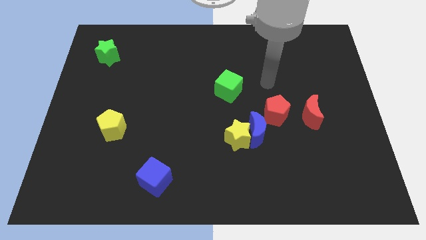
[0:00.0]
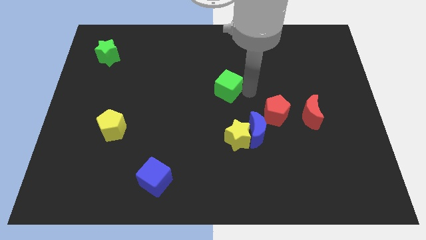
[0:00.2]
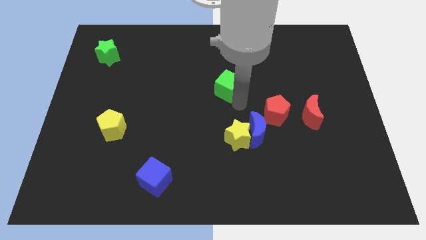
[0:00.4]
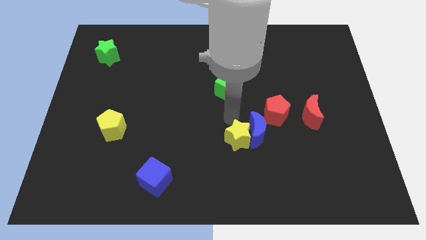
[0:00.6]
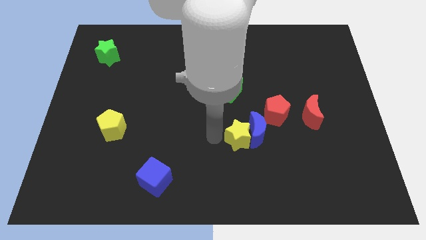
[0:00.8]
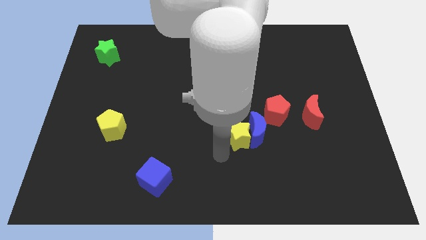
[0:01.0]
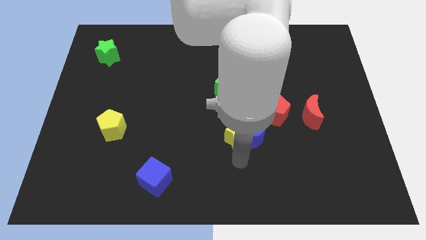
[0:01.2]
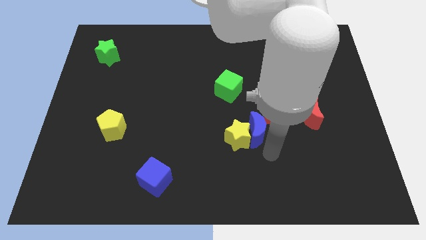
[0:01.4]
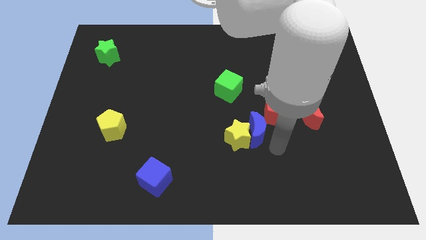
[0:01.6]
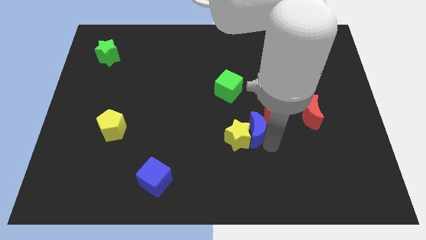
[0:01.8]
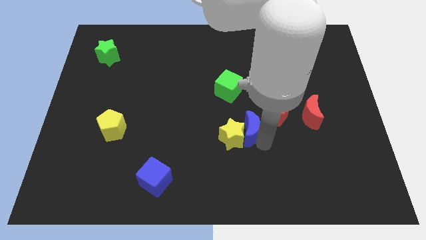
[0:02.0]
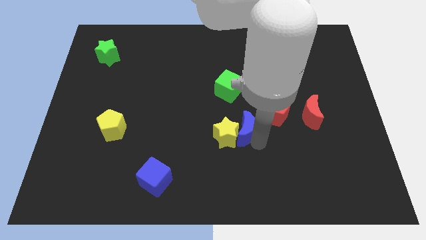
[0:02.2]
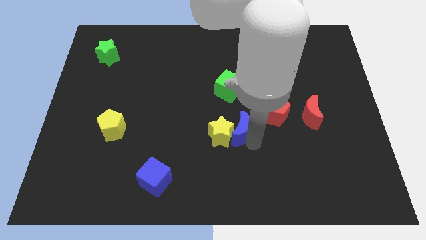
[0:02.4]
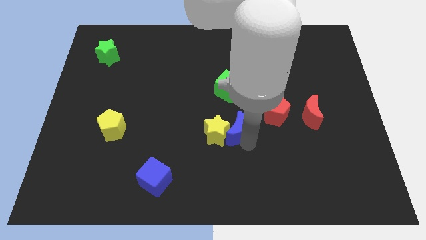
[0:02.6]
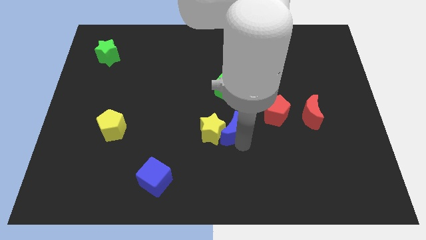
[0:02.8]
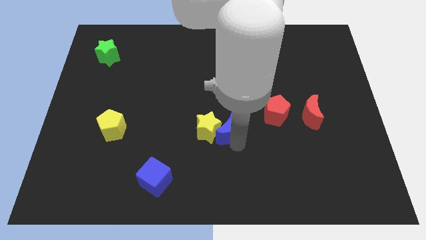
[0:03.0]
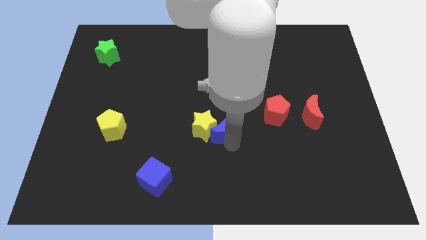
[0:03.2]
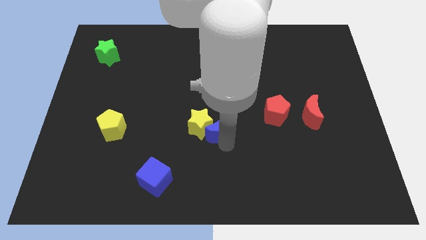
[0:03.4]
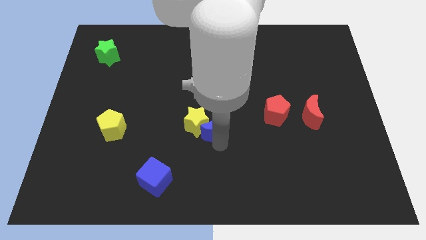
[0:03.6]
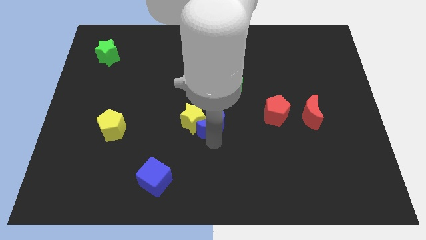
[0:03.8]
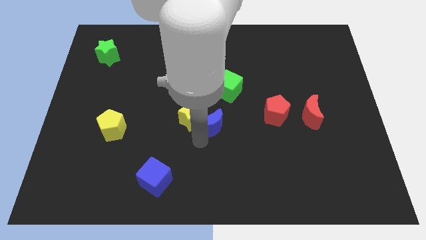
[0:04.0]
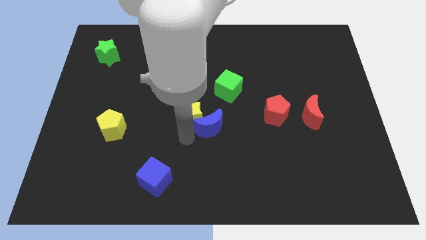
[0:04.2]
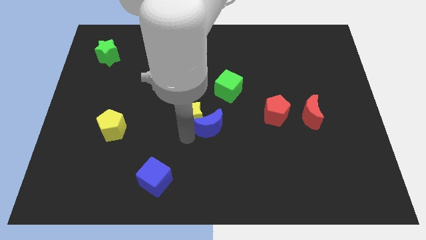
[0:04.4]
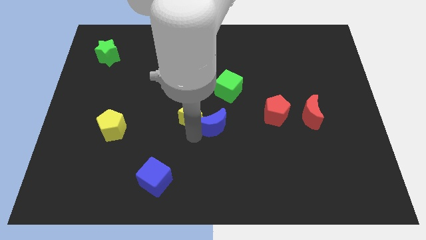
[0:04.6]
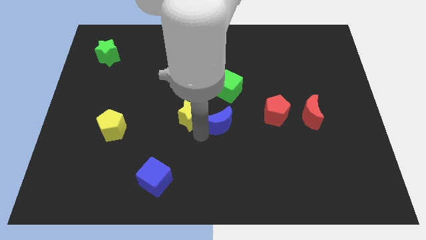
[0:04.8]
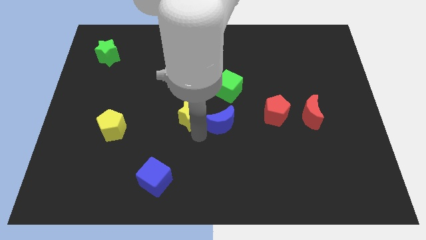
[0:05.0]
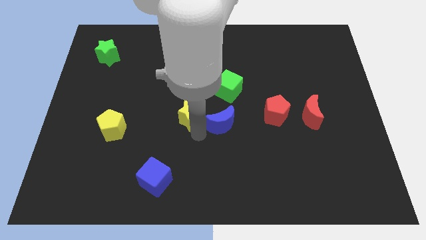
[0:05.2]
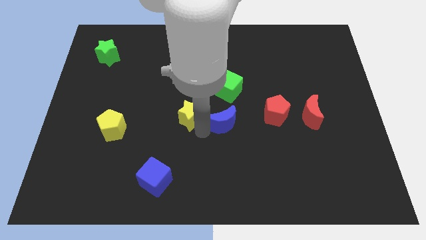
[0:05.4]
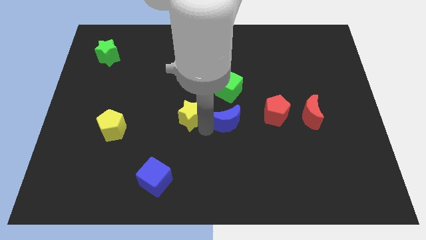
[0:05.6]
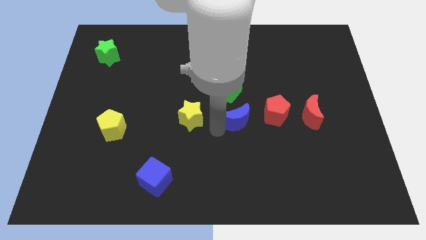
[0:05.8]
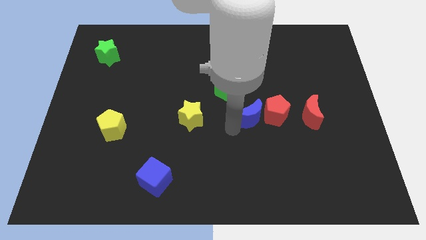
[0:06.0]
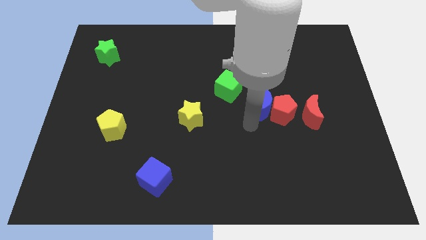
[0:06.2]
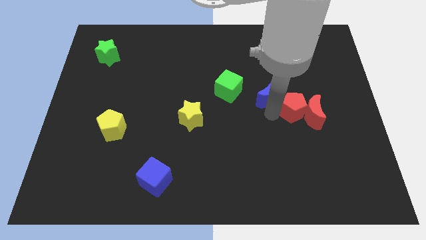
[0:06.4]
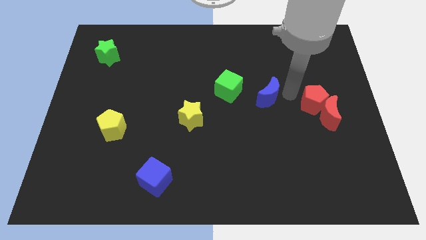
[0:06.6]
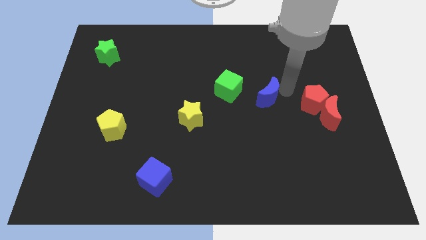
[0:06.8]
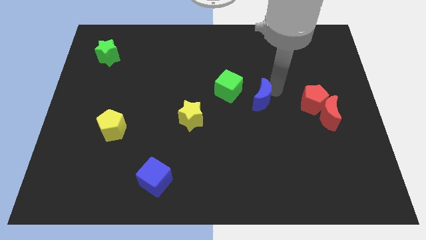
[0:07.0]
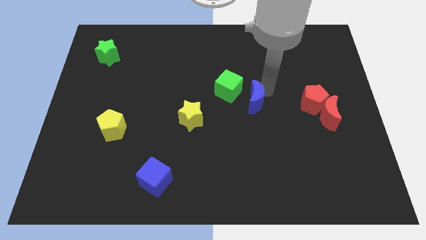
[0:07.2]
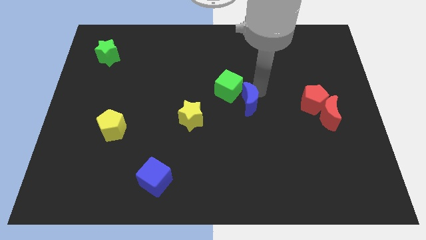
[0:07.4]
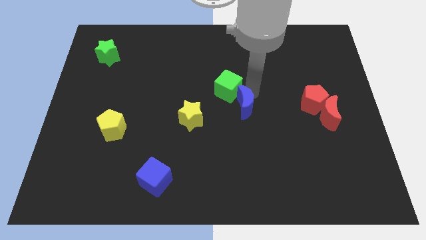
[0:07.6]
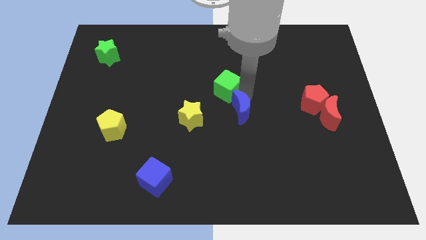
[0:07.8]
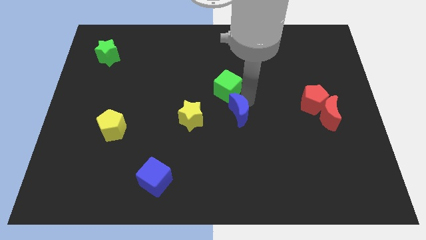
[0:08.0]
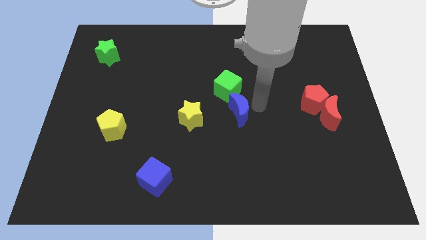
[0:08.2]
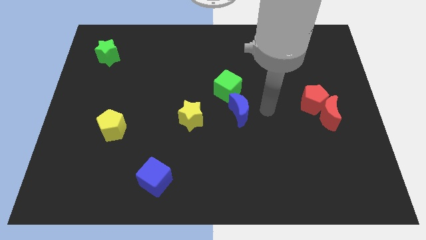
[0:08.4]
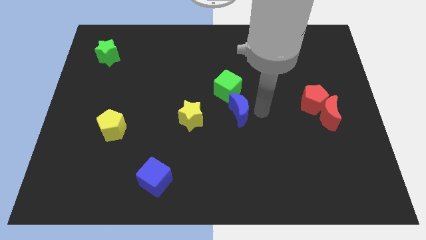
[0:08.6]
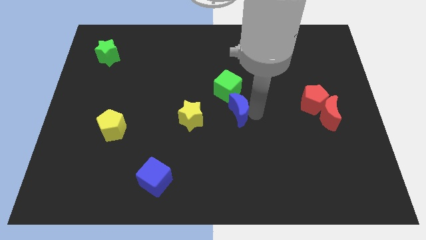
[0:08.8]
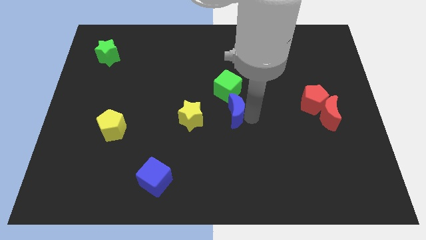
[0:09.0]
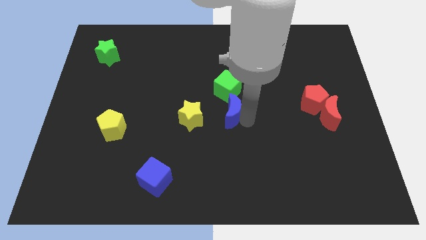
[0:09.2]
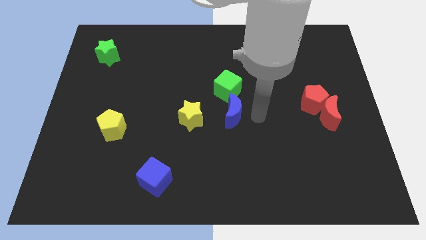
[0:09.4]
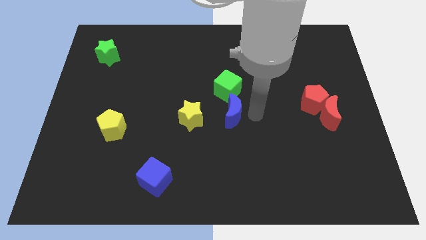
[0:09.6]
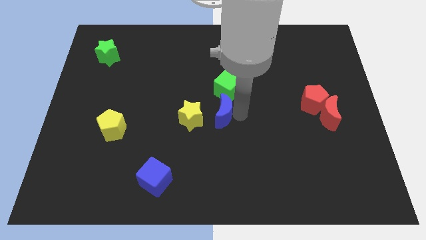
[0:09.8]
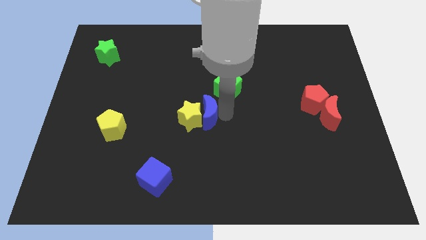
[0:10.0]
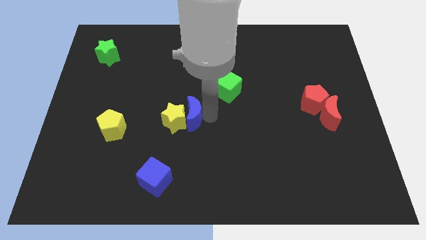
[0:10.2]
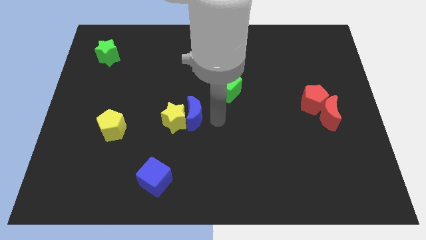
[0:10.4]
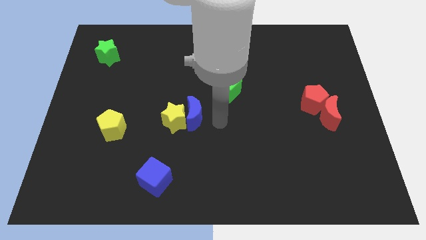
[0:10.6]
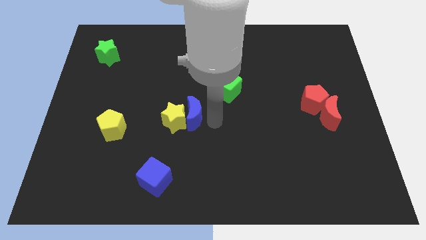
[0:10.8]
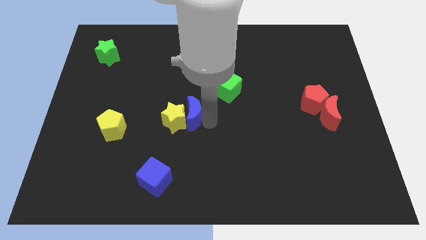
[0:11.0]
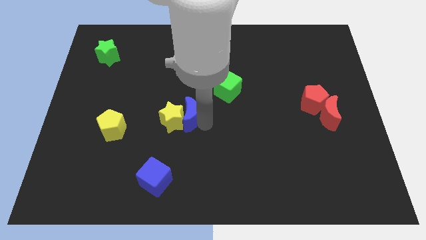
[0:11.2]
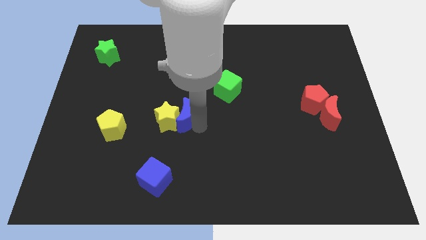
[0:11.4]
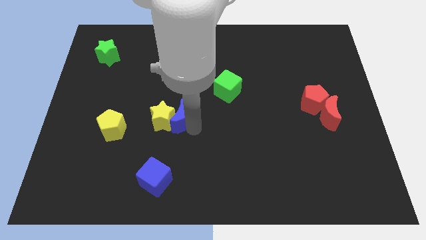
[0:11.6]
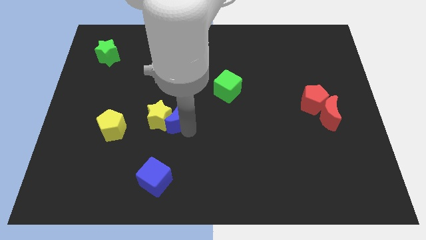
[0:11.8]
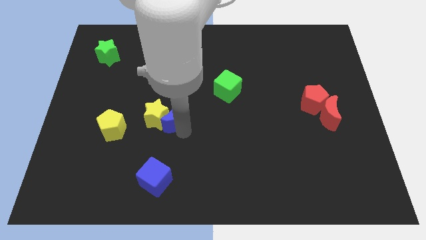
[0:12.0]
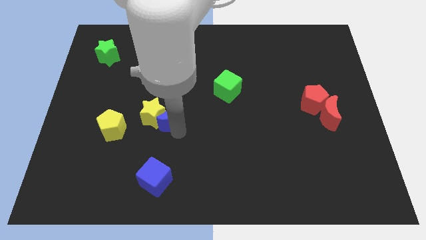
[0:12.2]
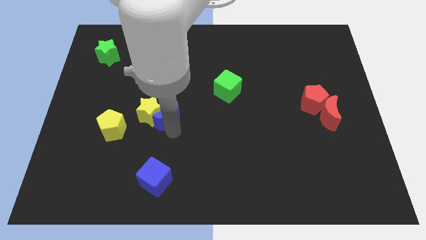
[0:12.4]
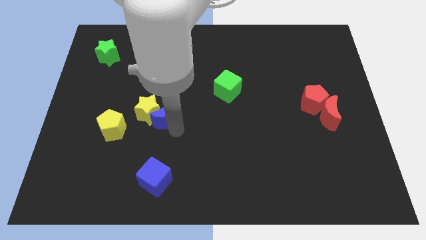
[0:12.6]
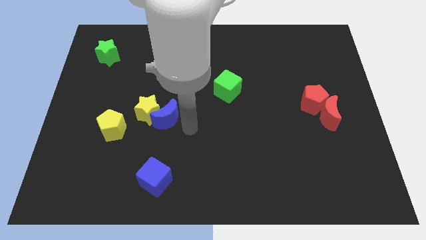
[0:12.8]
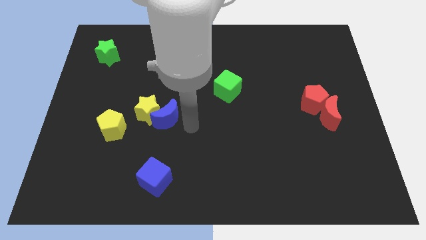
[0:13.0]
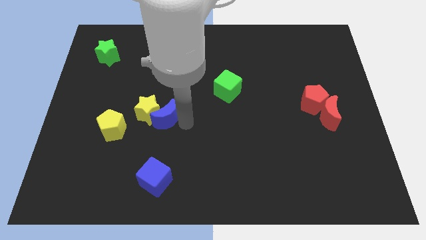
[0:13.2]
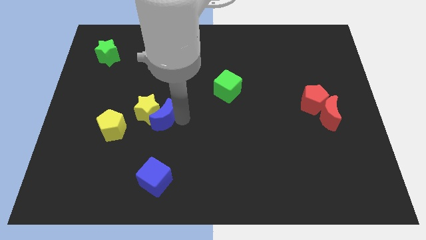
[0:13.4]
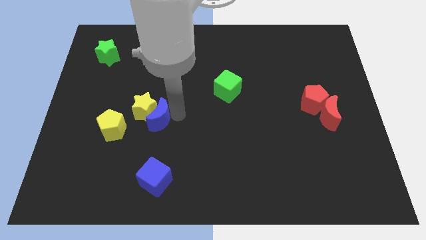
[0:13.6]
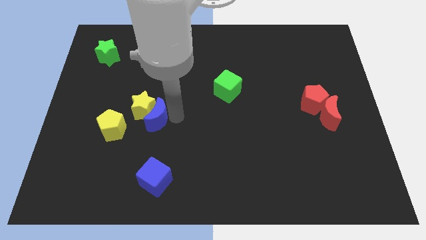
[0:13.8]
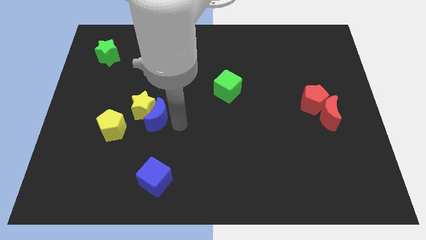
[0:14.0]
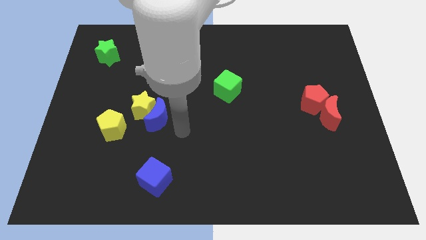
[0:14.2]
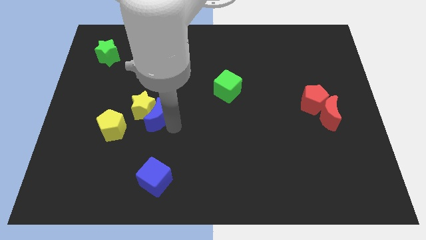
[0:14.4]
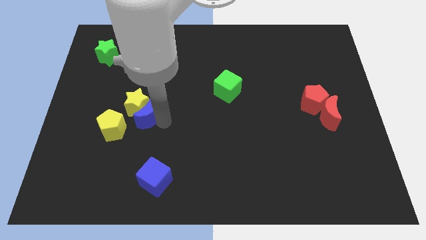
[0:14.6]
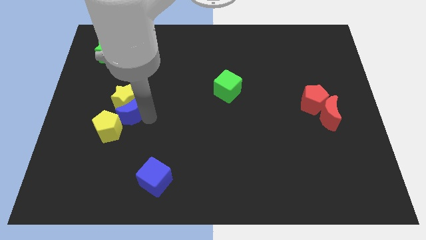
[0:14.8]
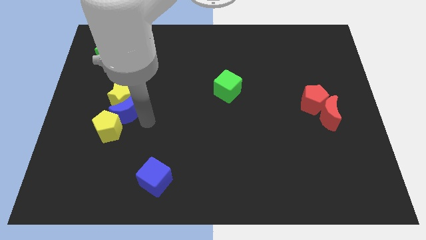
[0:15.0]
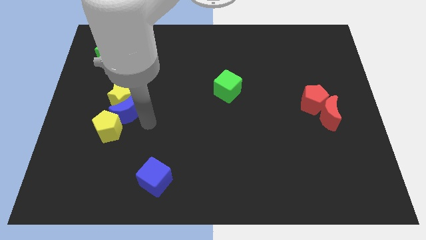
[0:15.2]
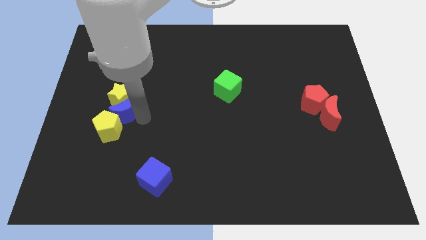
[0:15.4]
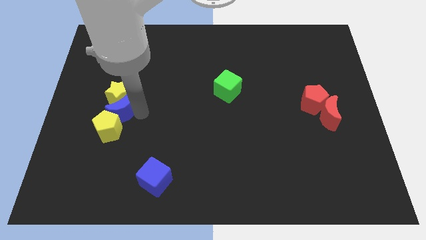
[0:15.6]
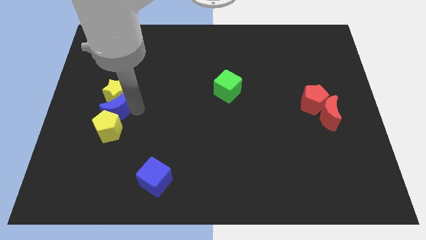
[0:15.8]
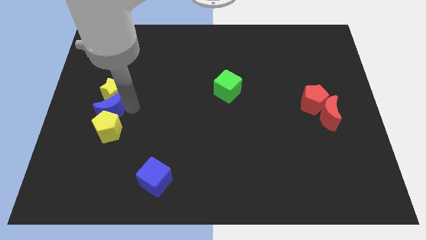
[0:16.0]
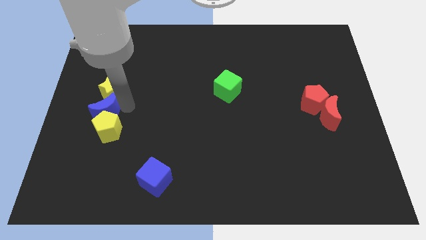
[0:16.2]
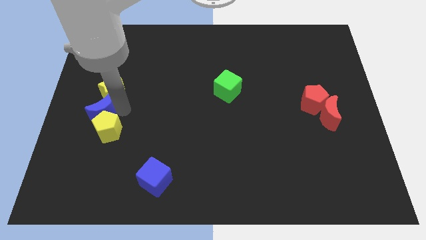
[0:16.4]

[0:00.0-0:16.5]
put the blue moon to the left side of the board
